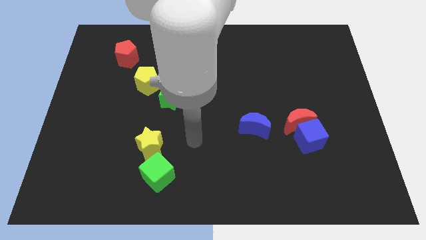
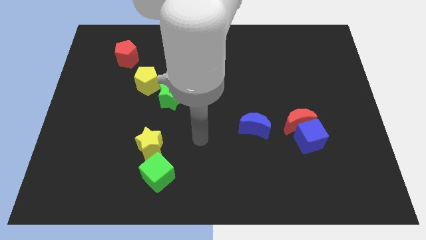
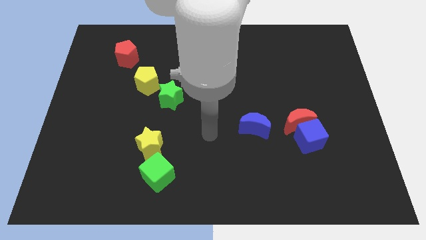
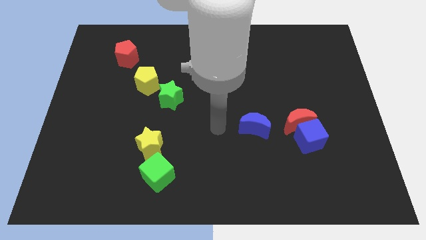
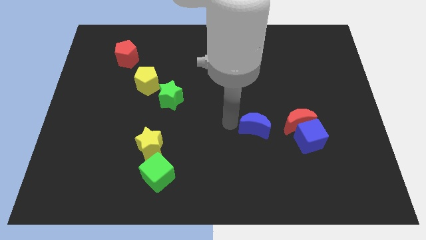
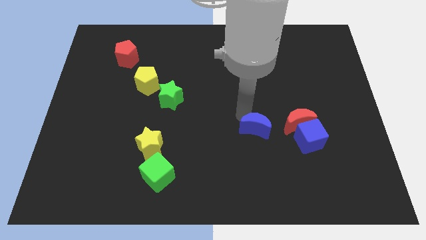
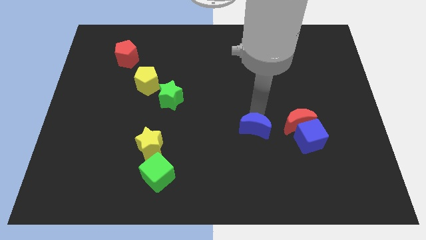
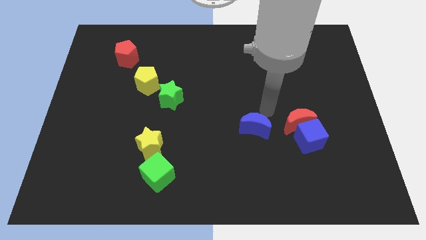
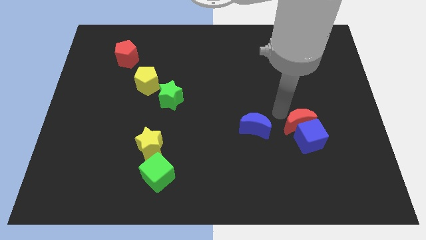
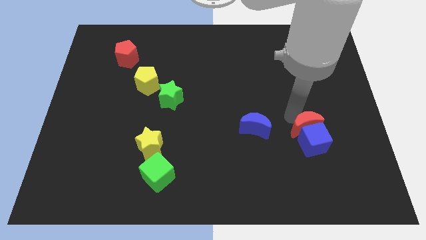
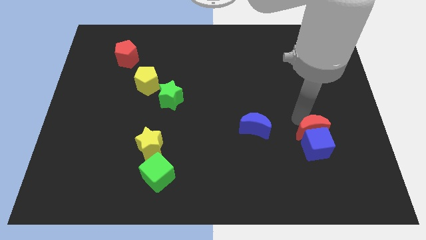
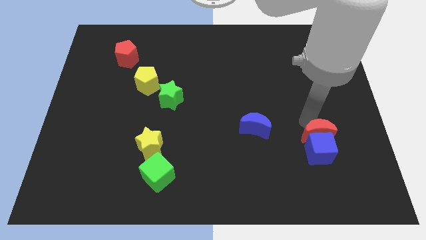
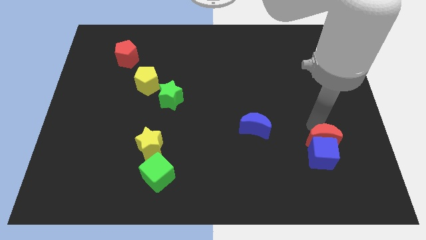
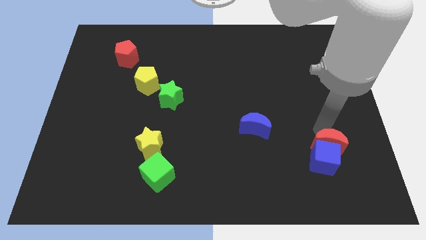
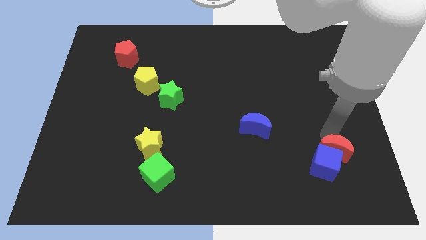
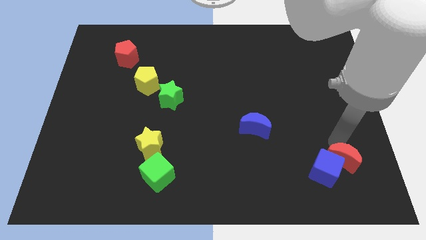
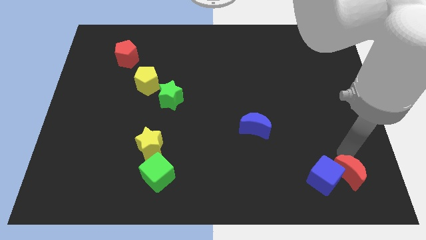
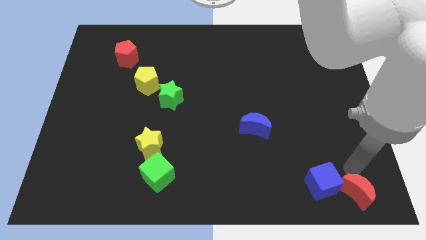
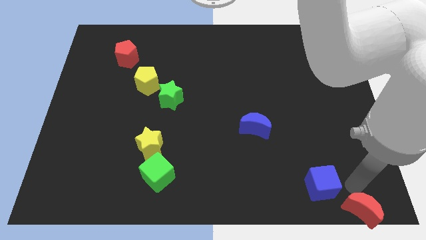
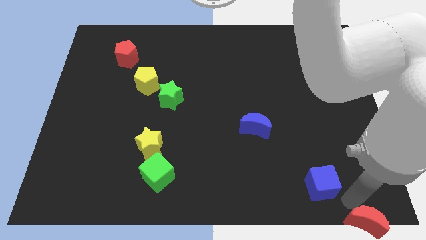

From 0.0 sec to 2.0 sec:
move the blue cube away from the red moon

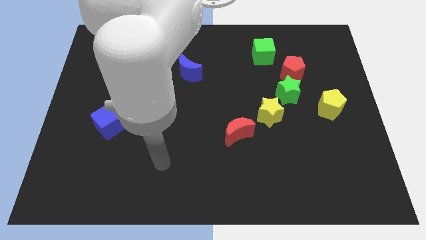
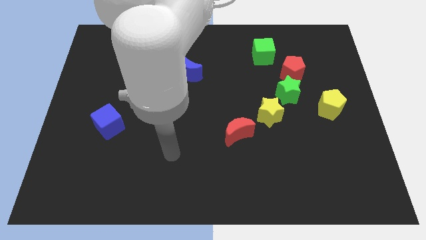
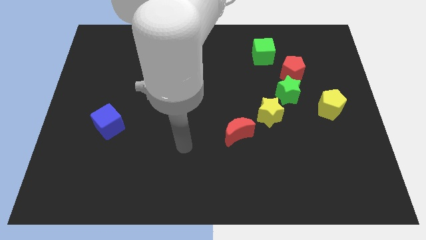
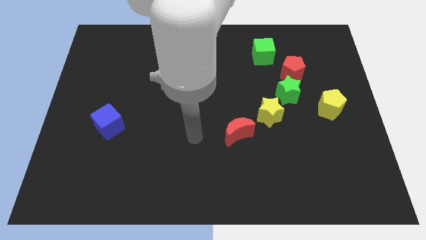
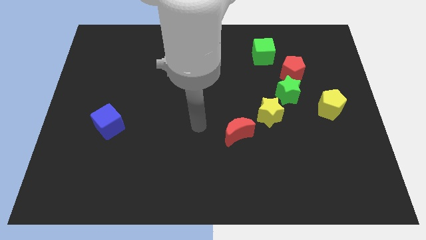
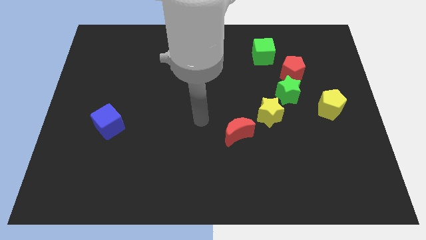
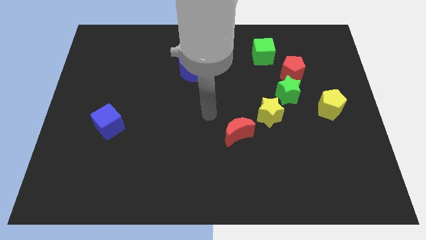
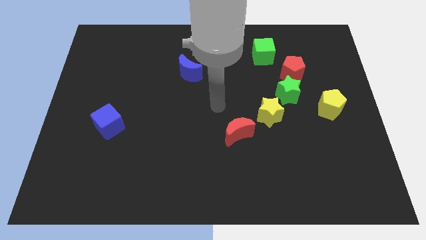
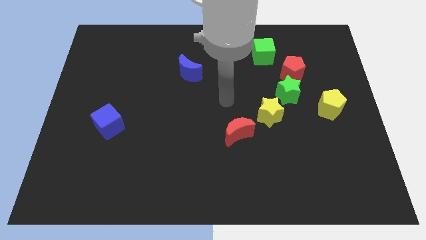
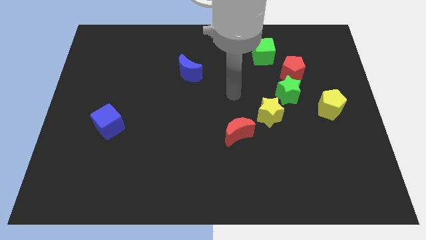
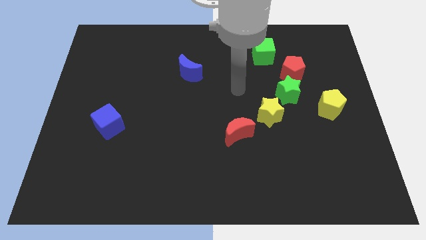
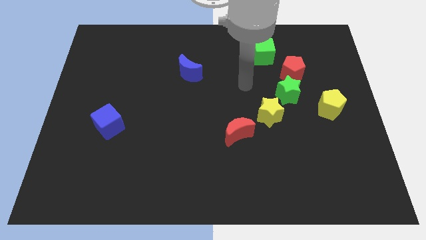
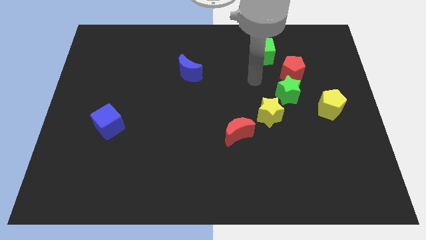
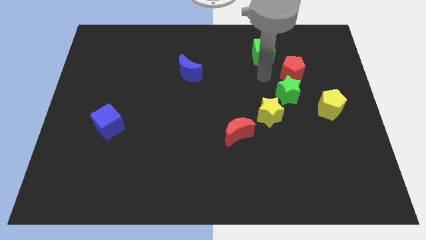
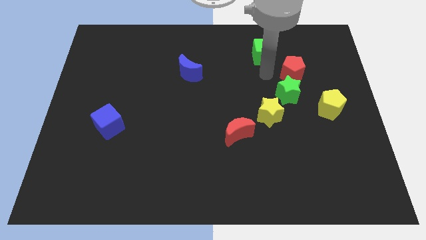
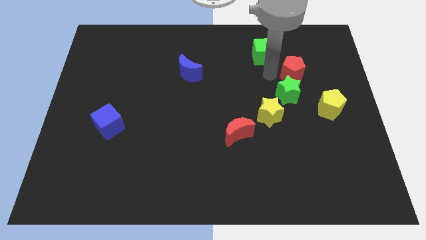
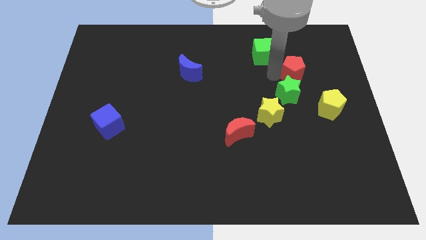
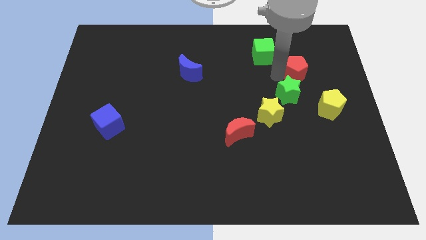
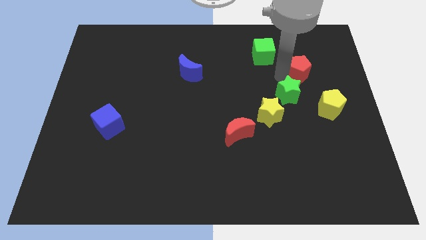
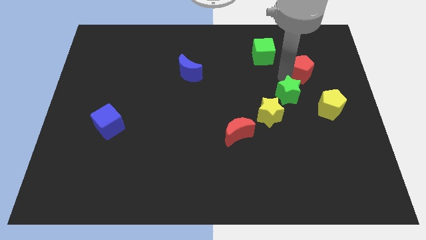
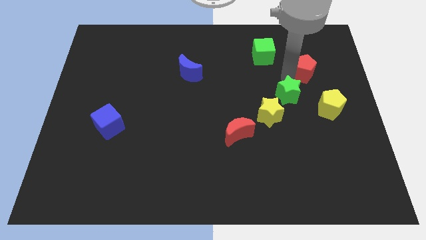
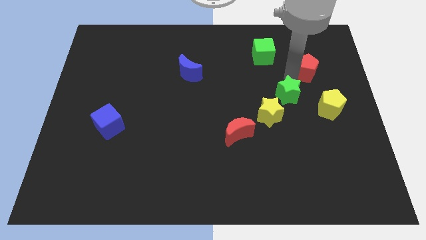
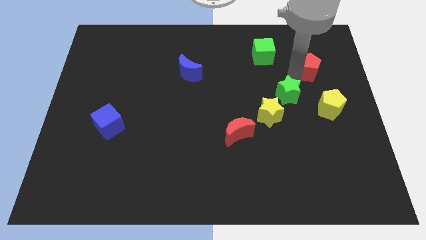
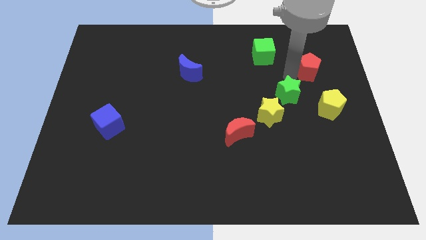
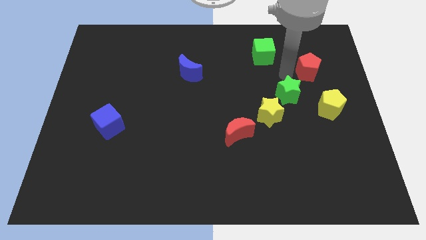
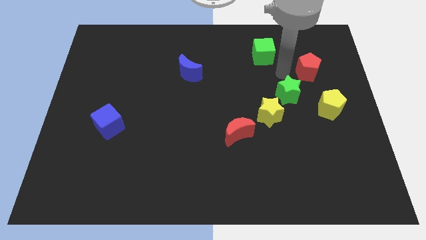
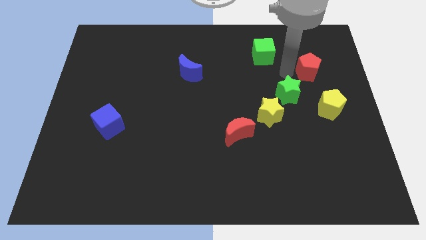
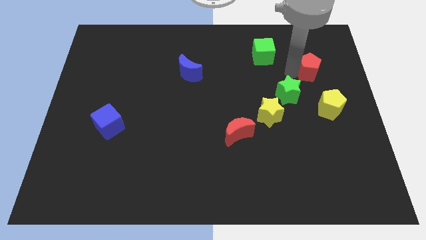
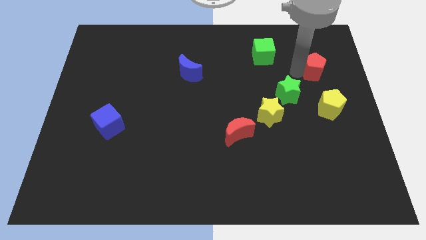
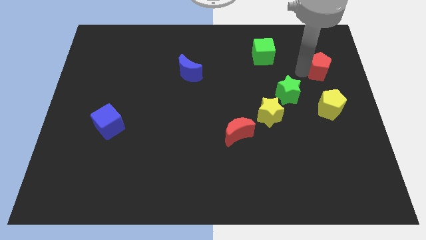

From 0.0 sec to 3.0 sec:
separate the red pentagon from the green star and green cube

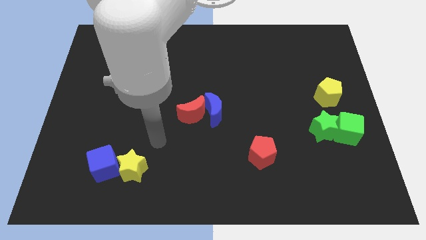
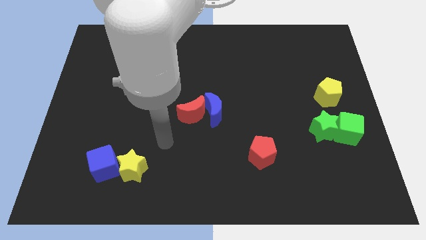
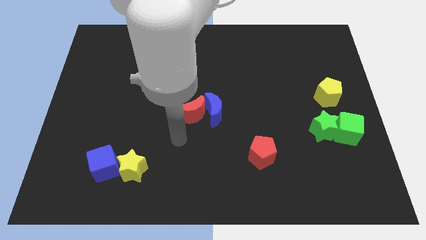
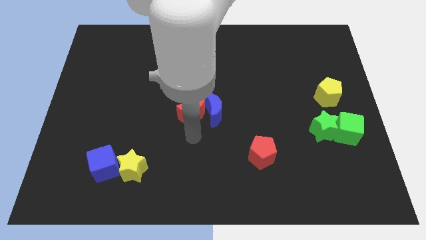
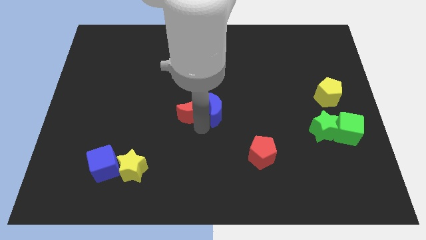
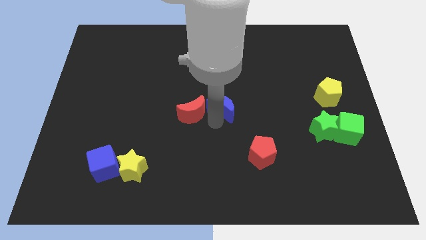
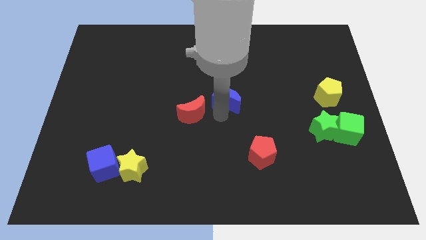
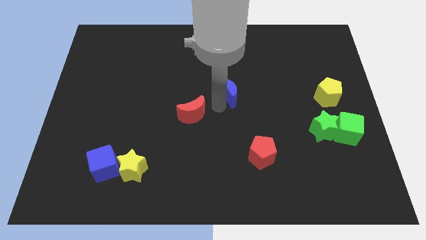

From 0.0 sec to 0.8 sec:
move the red moon away from the blue moon

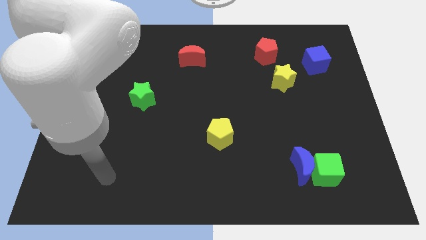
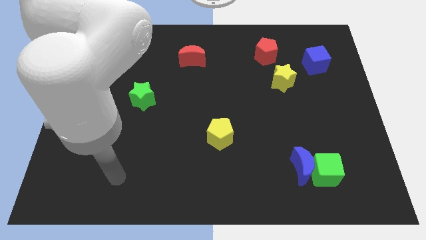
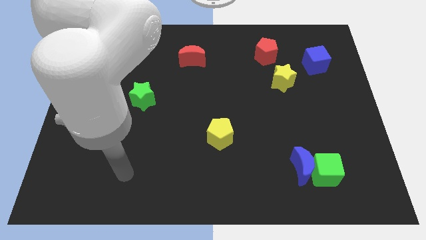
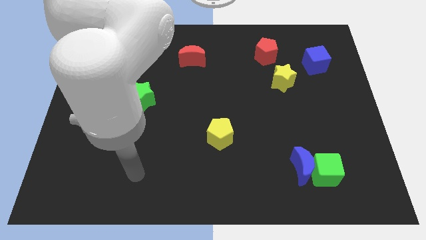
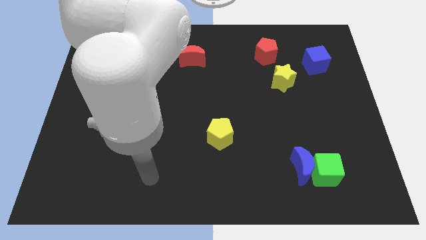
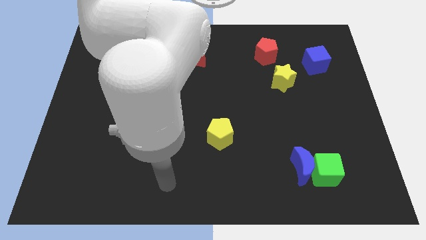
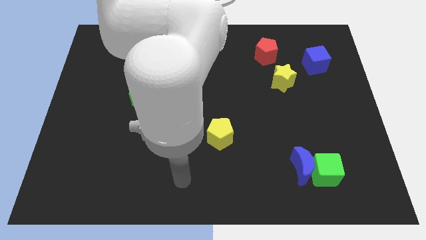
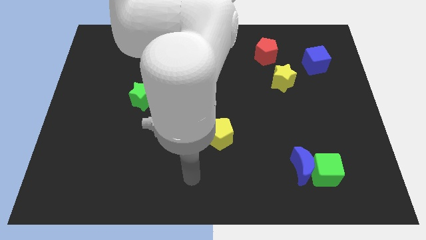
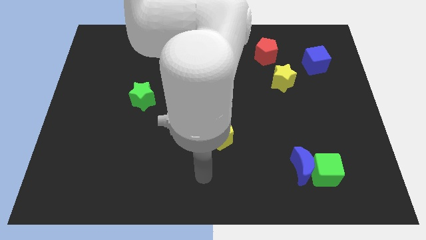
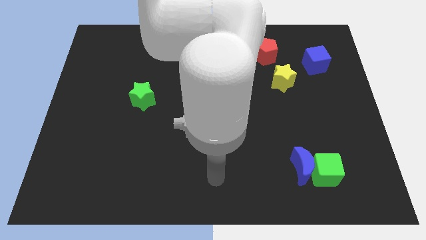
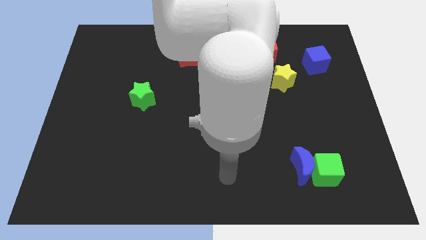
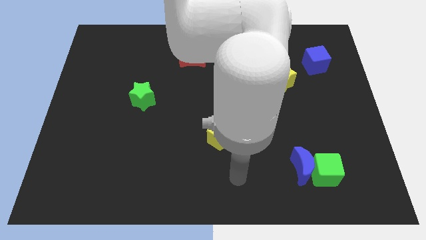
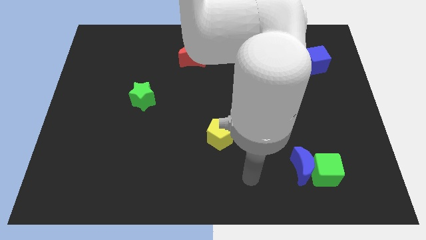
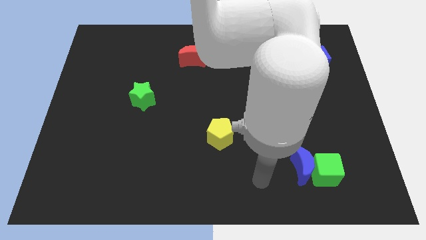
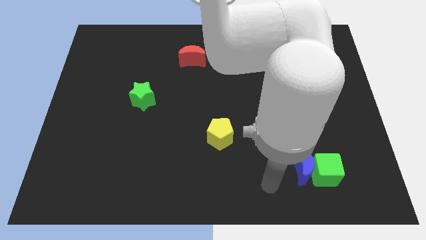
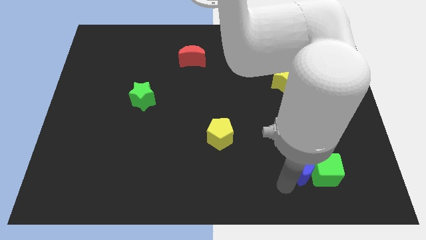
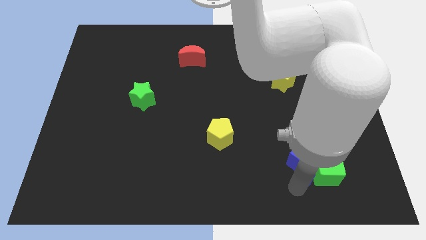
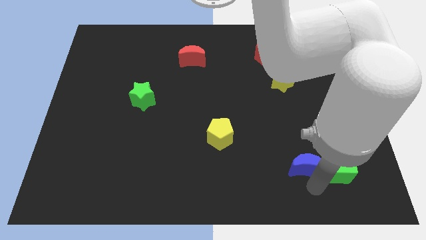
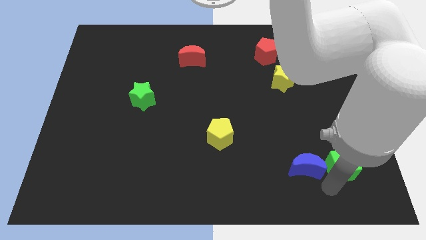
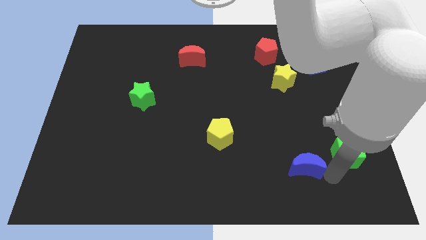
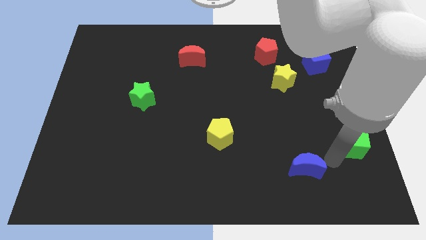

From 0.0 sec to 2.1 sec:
move the blue moon away from the green cube

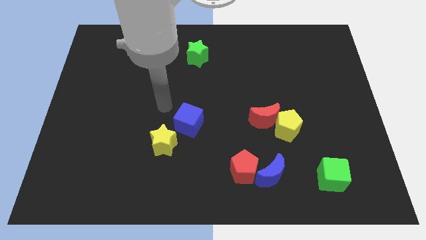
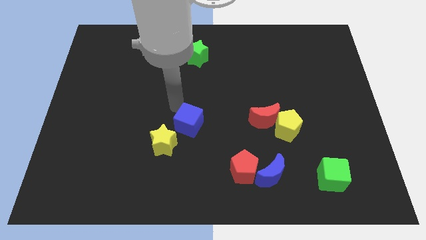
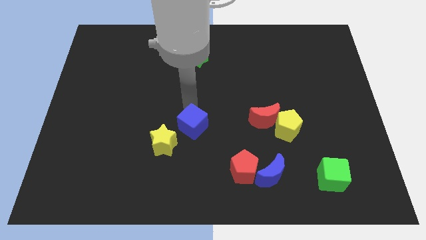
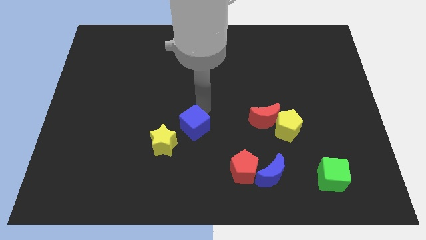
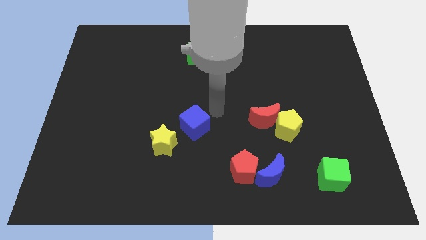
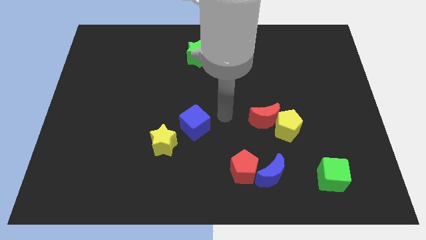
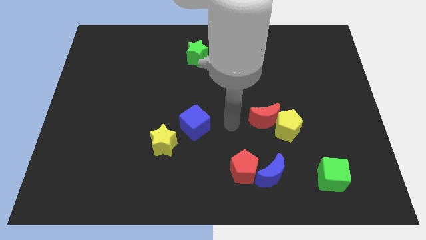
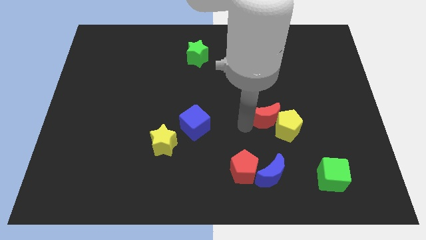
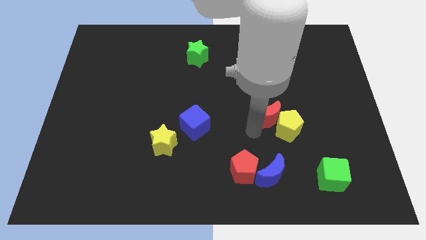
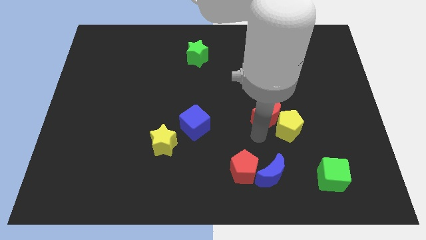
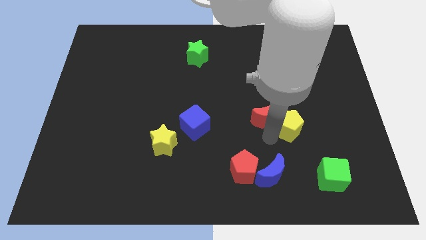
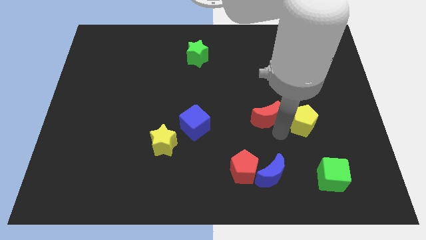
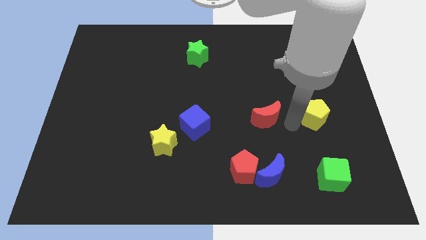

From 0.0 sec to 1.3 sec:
separate the red moon from the yellow pentagon

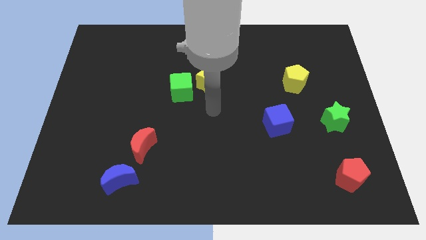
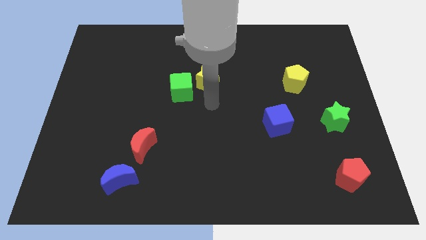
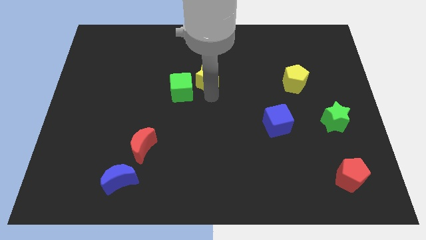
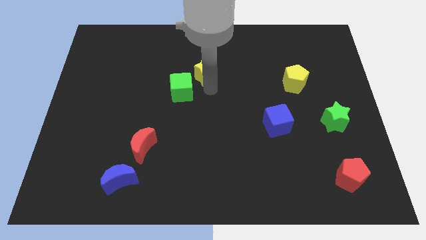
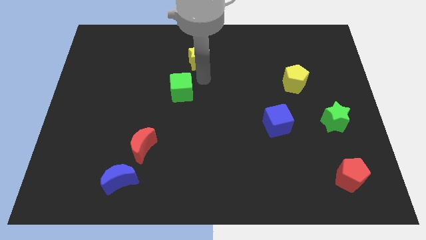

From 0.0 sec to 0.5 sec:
move the green cube away from the yellow star
